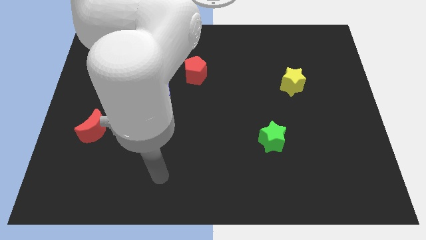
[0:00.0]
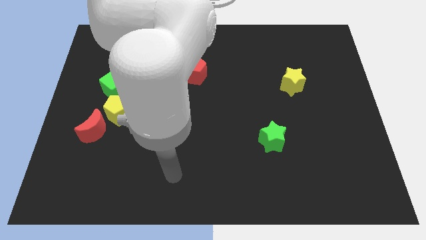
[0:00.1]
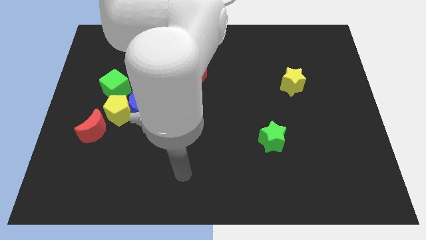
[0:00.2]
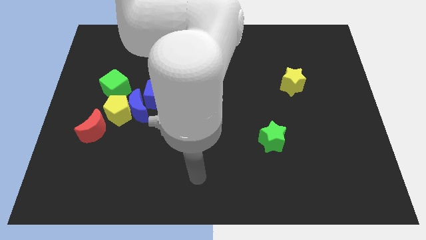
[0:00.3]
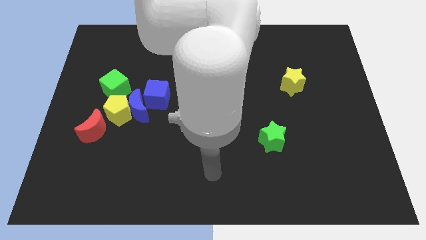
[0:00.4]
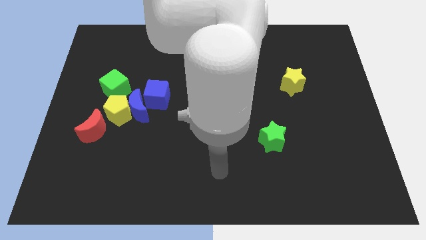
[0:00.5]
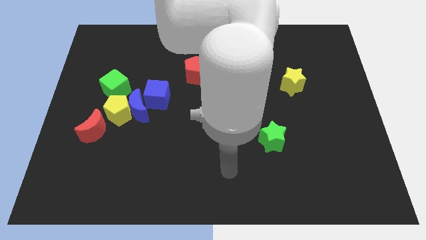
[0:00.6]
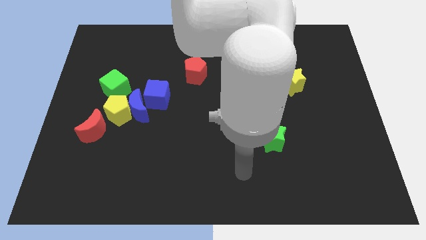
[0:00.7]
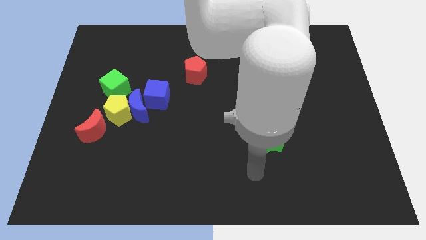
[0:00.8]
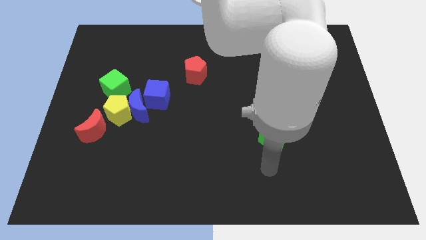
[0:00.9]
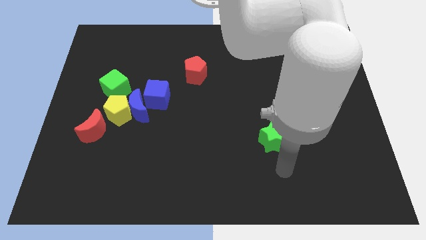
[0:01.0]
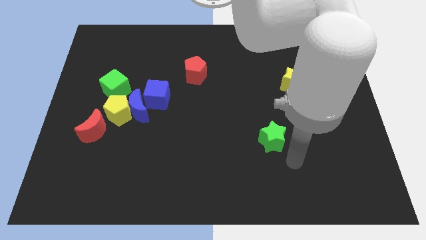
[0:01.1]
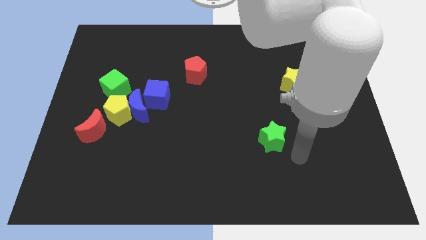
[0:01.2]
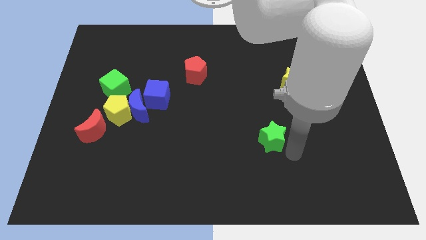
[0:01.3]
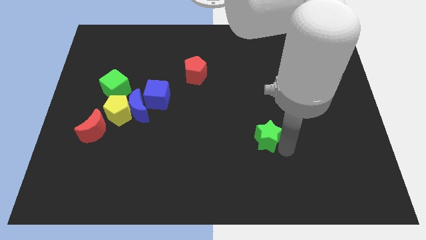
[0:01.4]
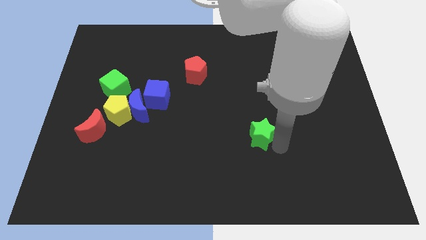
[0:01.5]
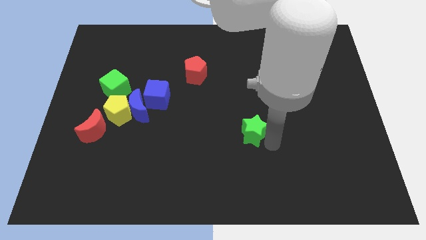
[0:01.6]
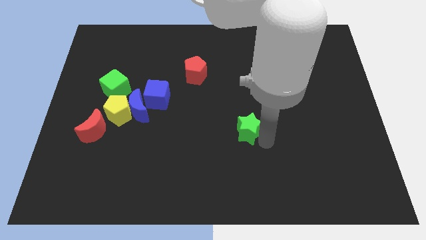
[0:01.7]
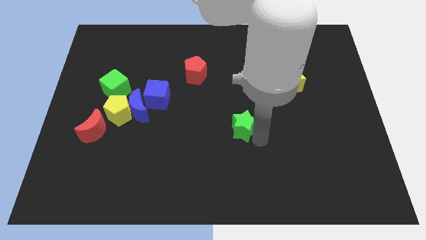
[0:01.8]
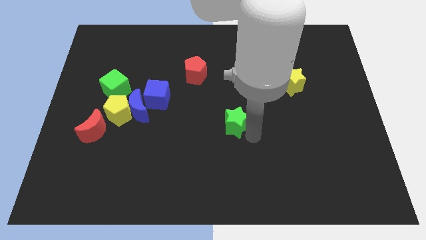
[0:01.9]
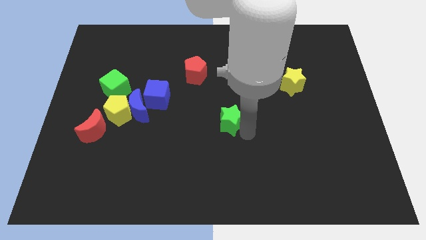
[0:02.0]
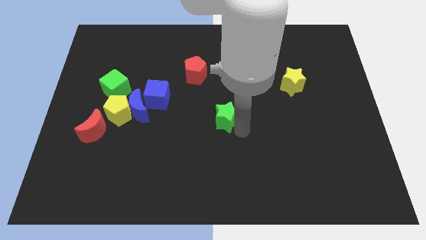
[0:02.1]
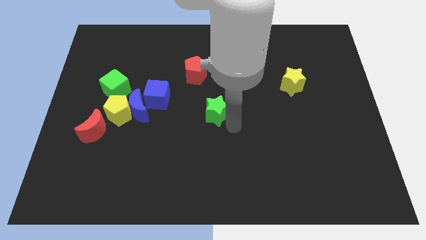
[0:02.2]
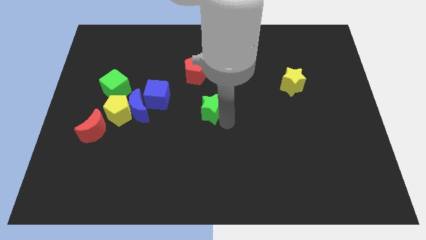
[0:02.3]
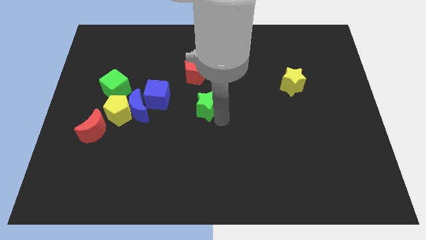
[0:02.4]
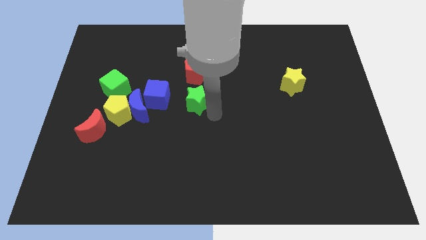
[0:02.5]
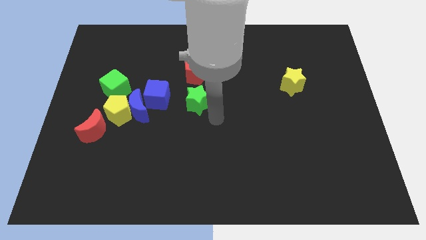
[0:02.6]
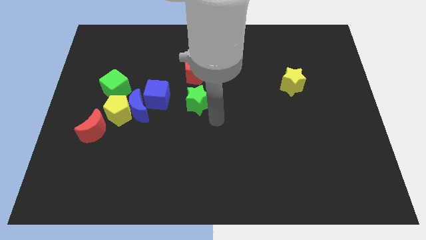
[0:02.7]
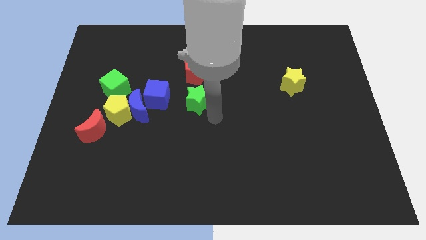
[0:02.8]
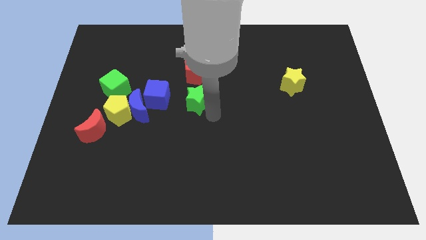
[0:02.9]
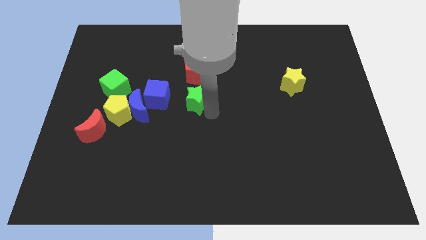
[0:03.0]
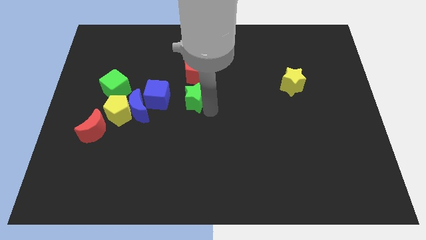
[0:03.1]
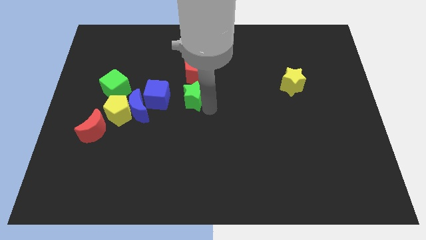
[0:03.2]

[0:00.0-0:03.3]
slide the green star up and left

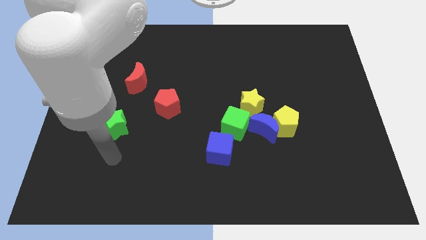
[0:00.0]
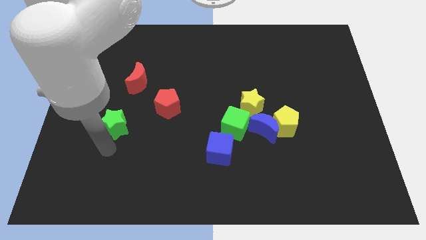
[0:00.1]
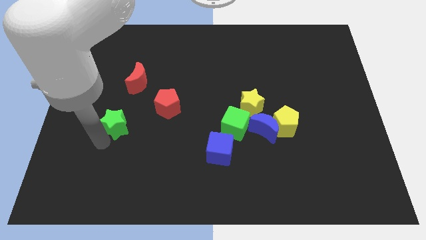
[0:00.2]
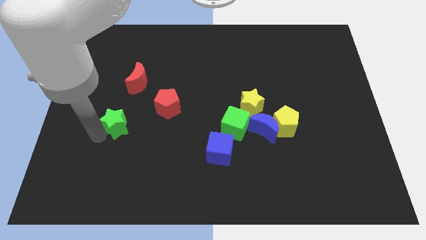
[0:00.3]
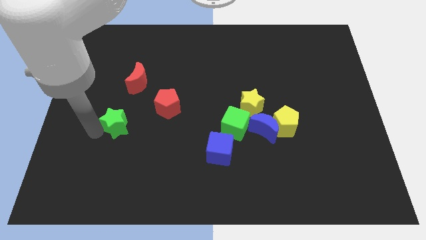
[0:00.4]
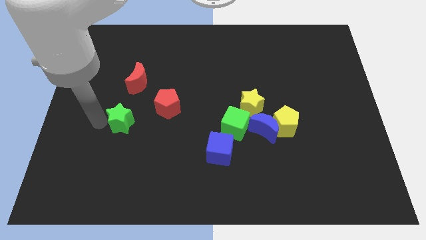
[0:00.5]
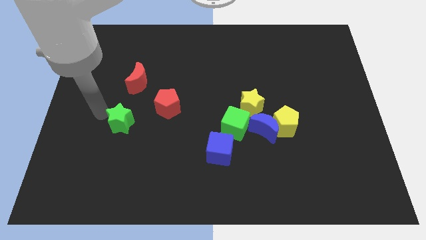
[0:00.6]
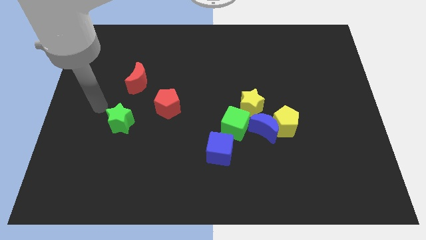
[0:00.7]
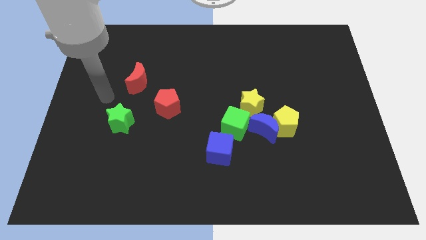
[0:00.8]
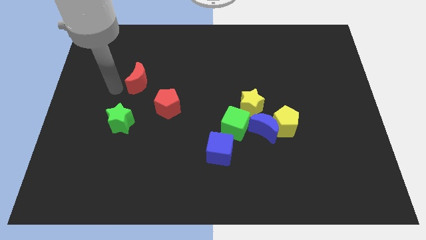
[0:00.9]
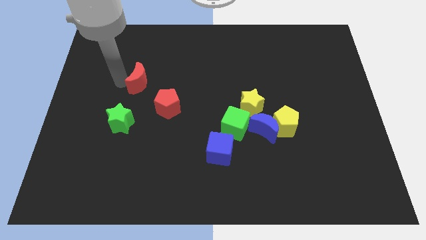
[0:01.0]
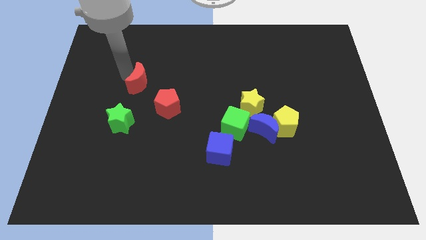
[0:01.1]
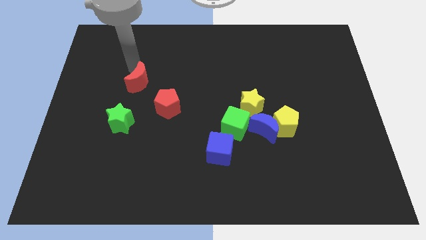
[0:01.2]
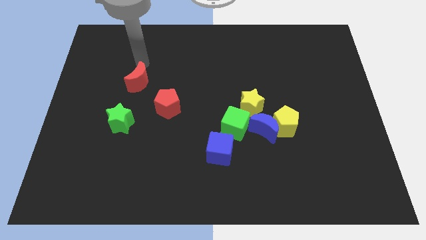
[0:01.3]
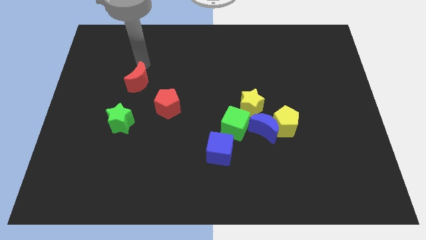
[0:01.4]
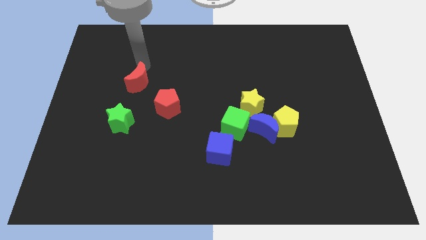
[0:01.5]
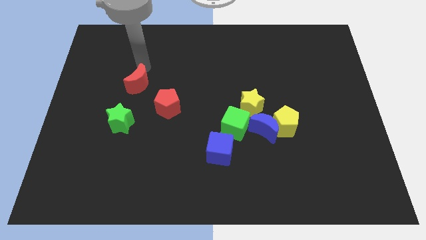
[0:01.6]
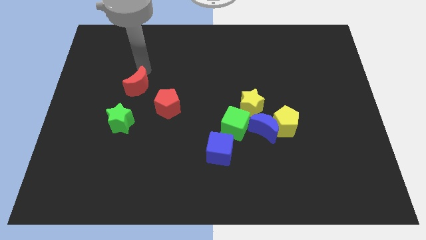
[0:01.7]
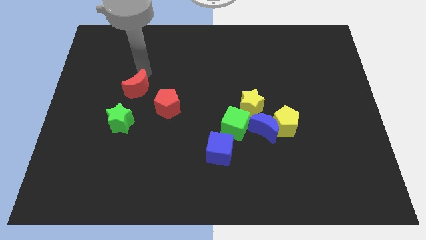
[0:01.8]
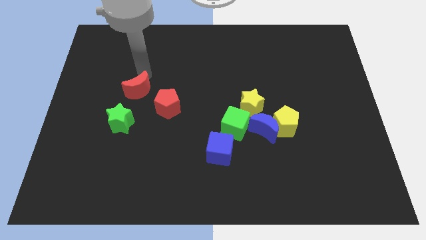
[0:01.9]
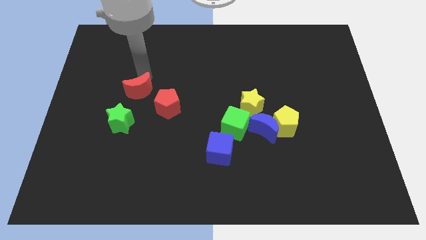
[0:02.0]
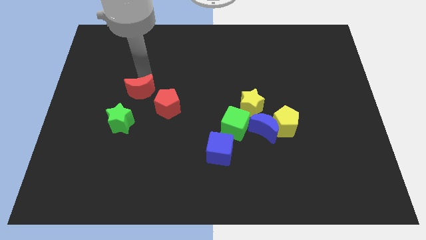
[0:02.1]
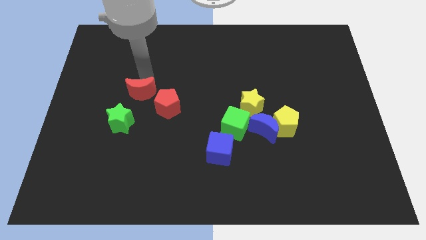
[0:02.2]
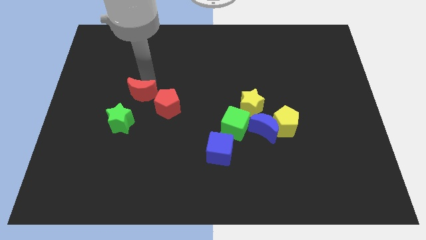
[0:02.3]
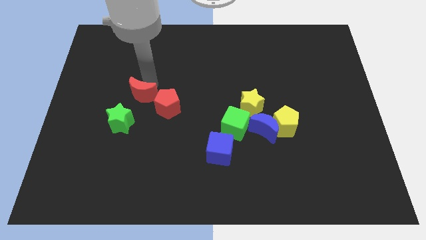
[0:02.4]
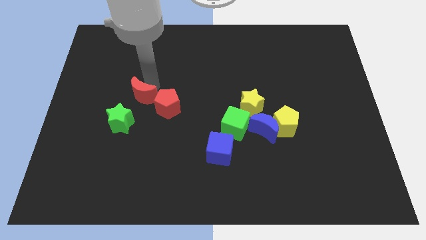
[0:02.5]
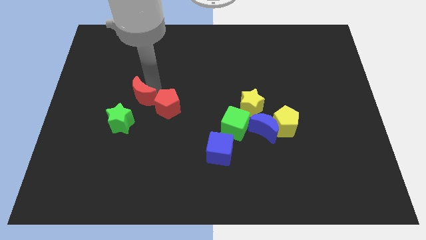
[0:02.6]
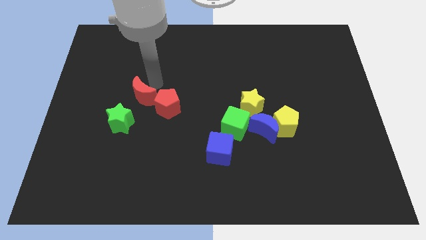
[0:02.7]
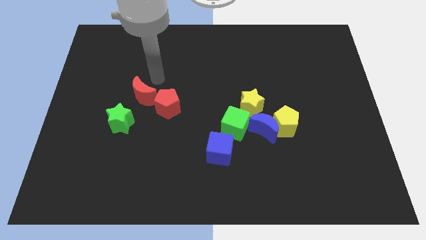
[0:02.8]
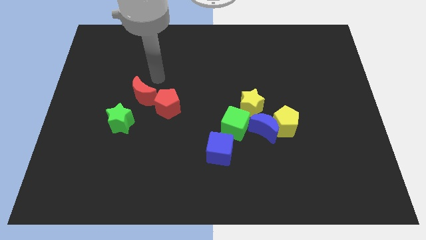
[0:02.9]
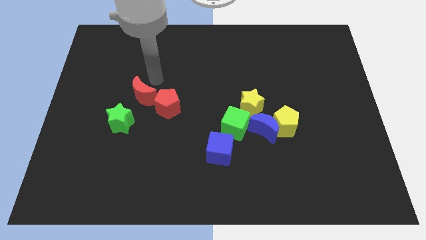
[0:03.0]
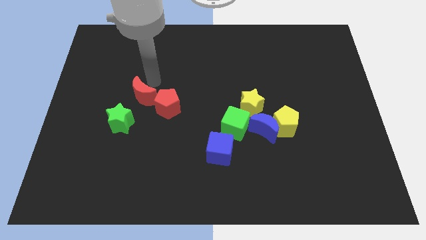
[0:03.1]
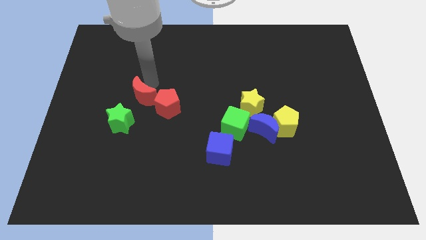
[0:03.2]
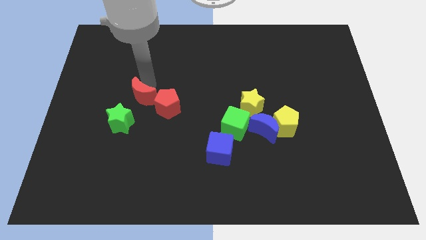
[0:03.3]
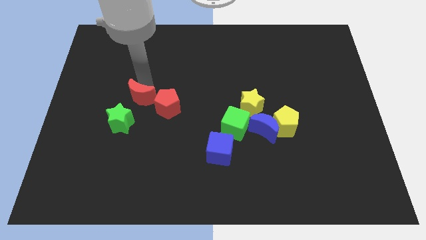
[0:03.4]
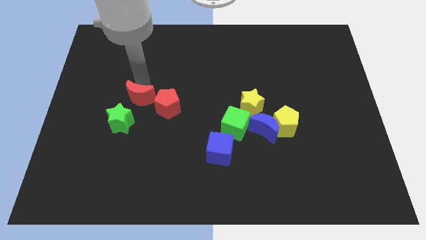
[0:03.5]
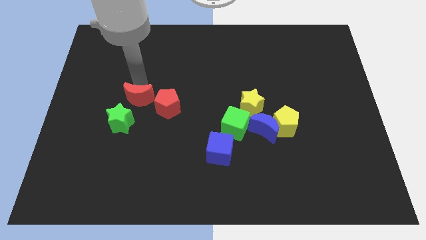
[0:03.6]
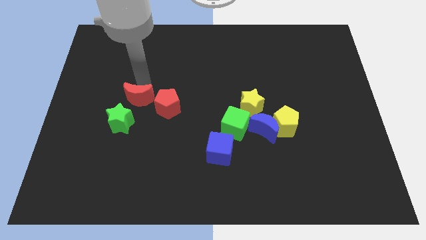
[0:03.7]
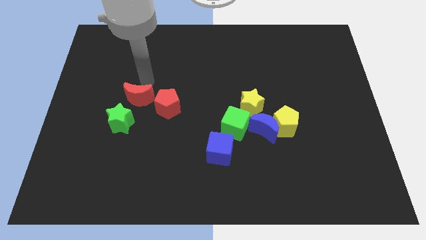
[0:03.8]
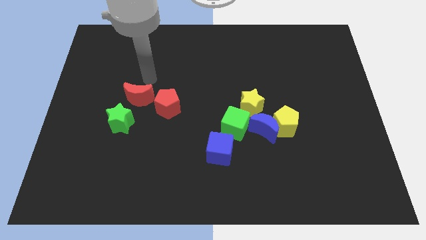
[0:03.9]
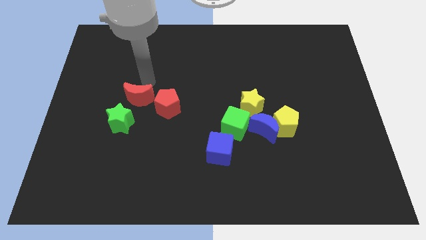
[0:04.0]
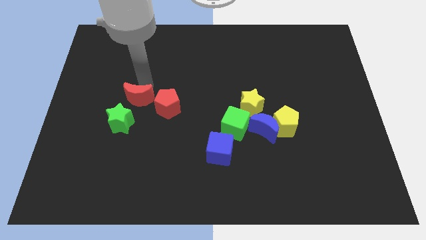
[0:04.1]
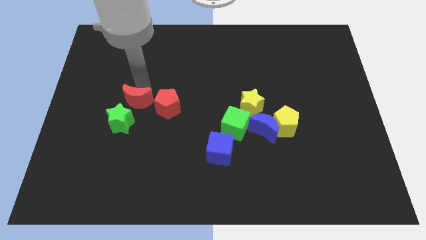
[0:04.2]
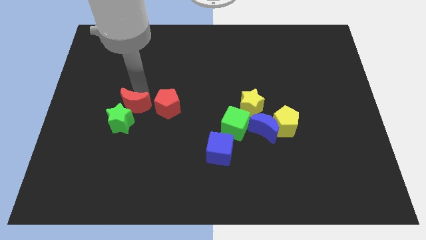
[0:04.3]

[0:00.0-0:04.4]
push the red moon downwards a little bit

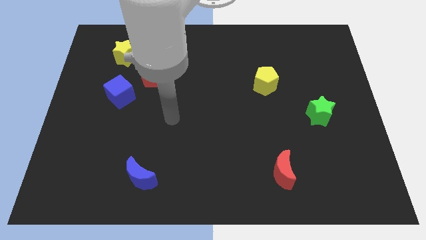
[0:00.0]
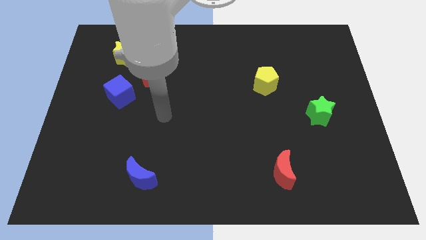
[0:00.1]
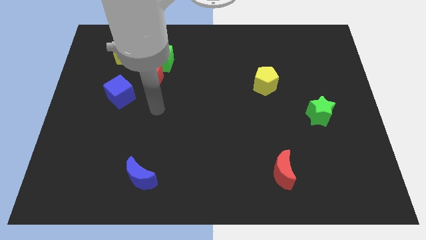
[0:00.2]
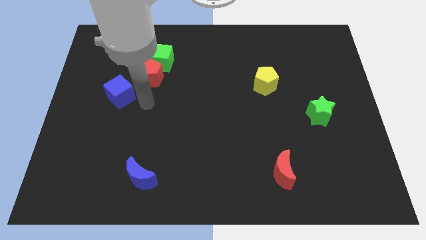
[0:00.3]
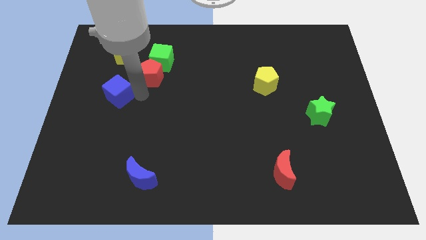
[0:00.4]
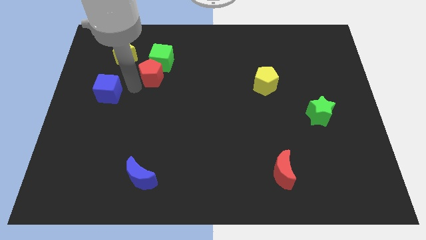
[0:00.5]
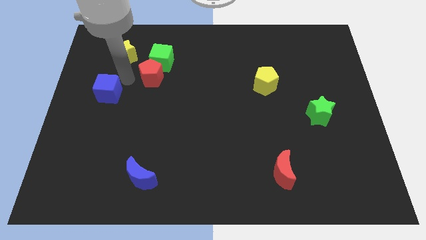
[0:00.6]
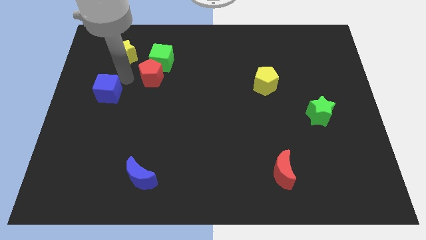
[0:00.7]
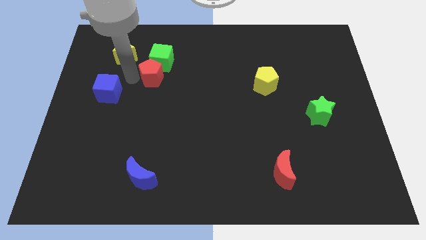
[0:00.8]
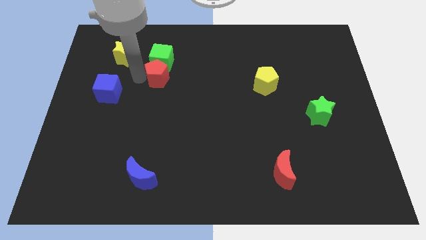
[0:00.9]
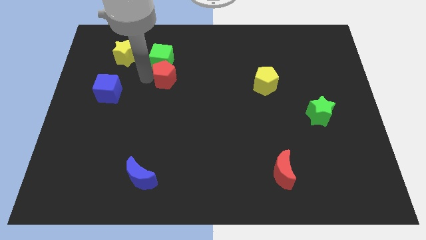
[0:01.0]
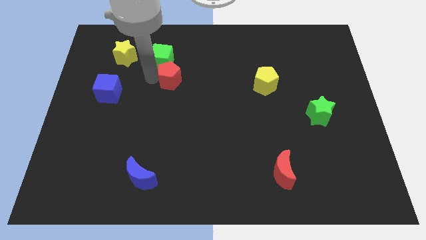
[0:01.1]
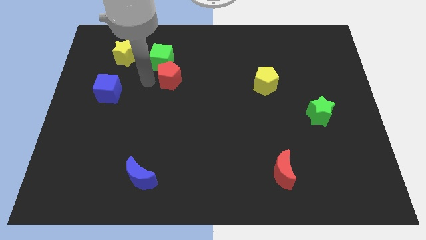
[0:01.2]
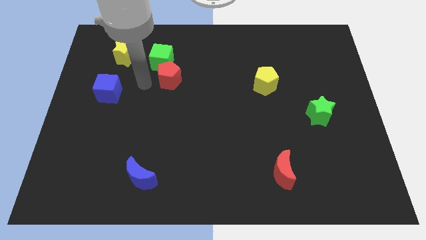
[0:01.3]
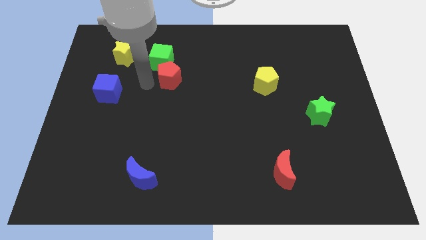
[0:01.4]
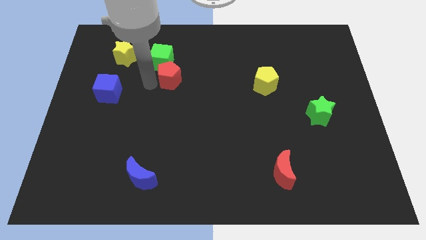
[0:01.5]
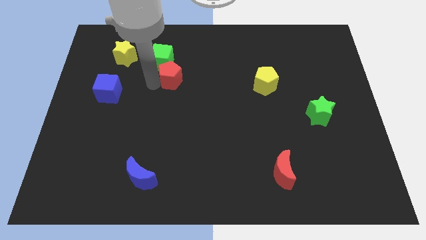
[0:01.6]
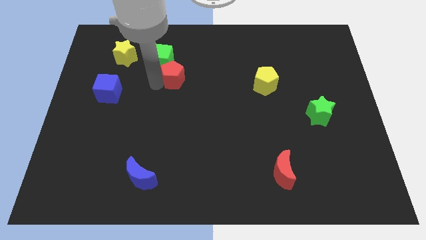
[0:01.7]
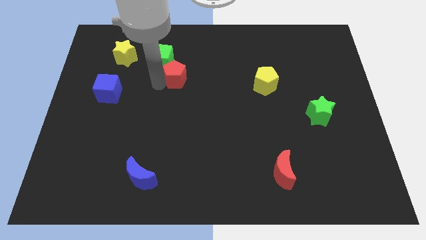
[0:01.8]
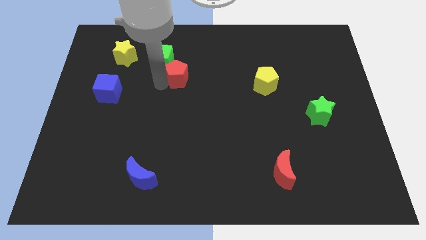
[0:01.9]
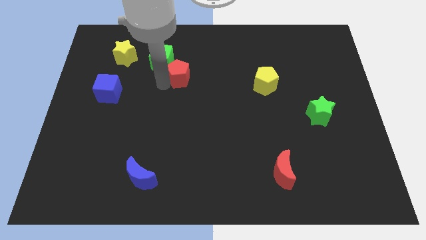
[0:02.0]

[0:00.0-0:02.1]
move the red pentagon a little right
